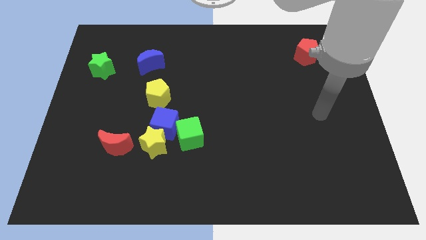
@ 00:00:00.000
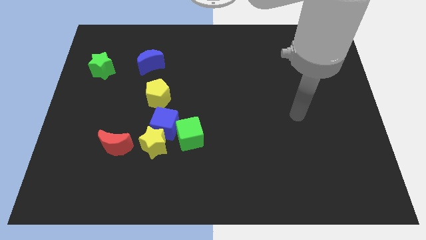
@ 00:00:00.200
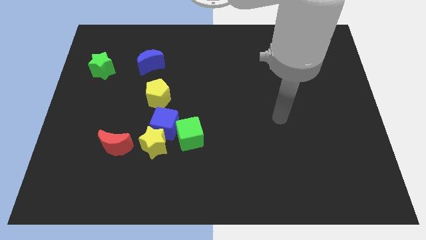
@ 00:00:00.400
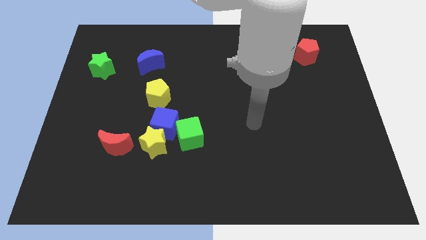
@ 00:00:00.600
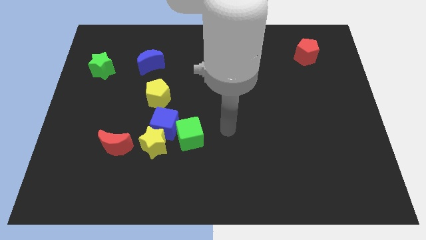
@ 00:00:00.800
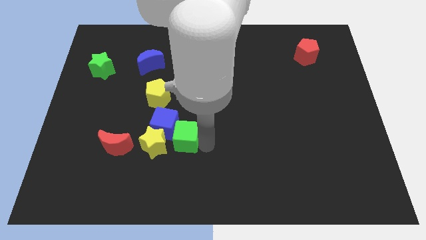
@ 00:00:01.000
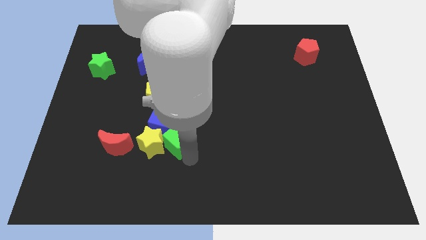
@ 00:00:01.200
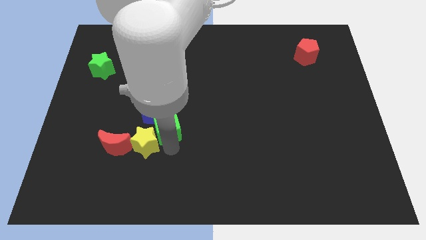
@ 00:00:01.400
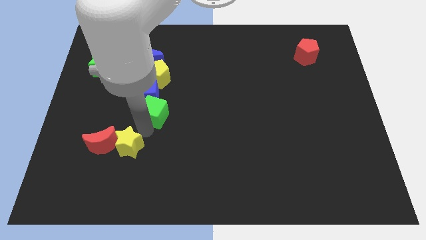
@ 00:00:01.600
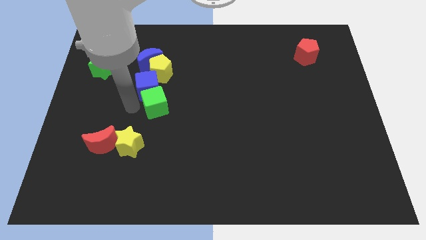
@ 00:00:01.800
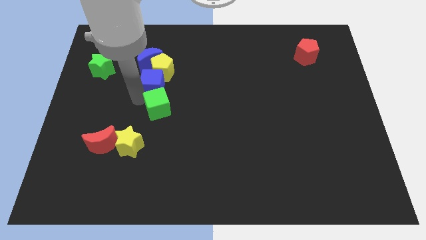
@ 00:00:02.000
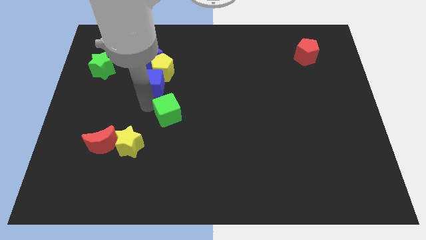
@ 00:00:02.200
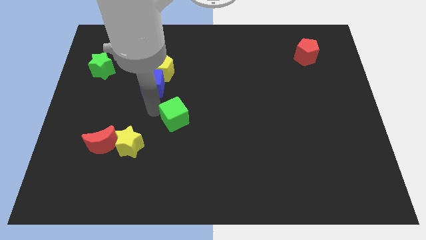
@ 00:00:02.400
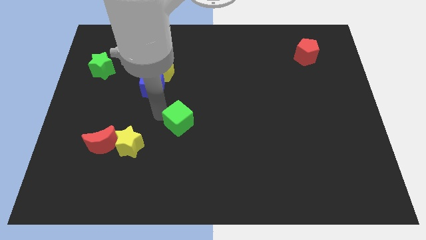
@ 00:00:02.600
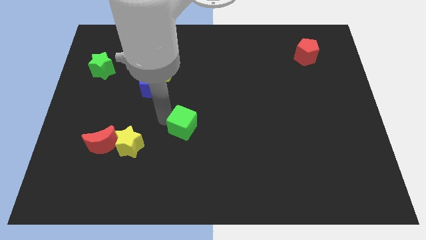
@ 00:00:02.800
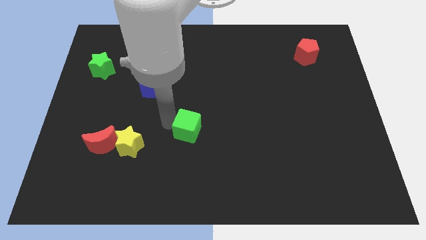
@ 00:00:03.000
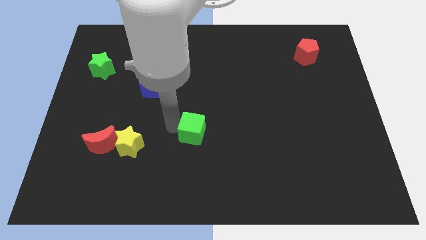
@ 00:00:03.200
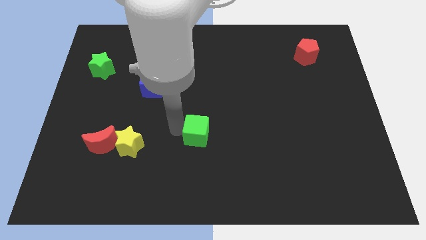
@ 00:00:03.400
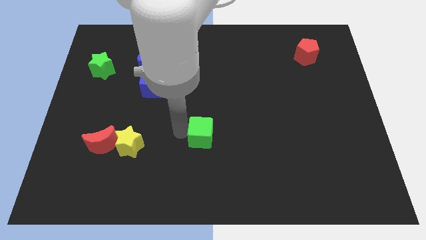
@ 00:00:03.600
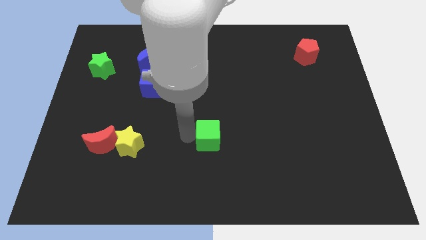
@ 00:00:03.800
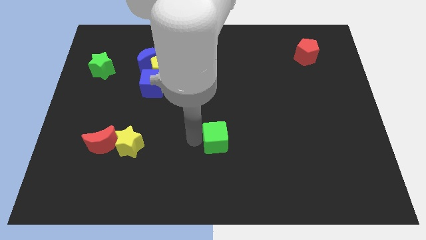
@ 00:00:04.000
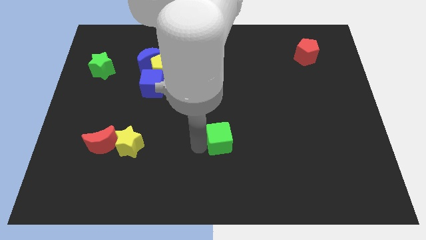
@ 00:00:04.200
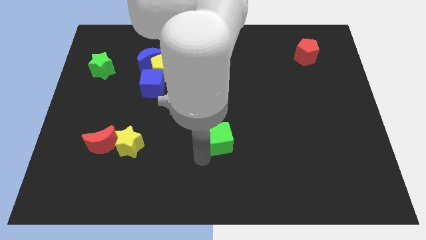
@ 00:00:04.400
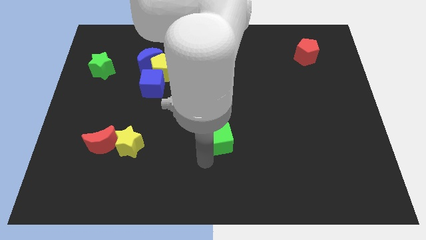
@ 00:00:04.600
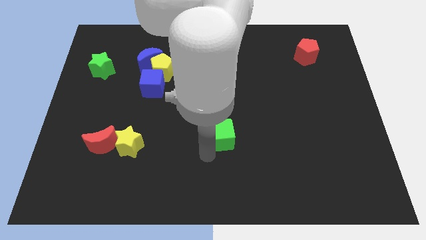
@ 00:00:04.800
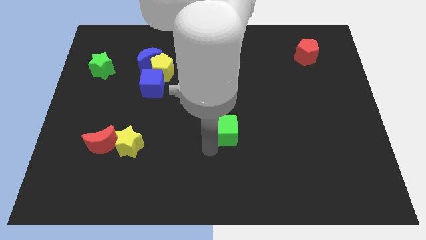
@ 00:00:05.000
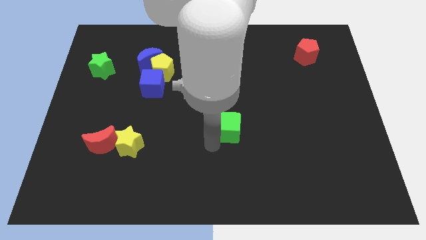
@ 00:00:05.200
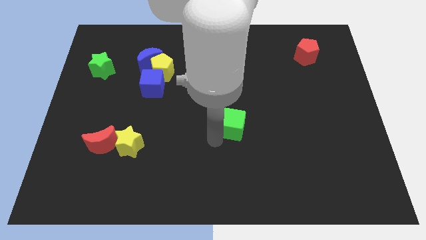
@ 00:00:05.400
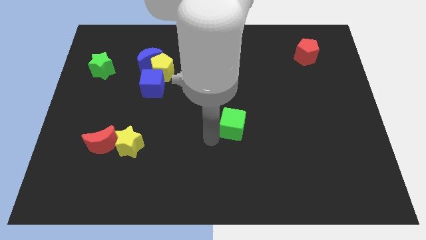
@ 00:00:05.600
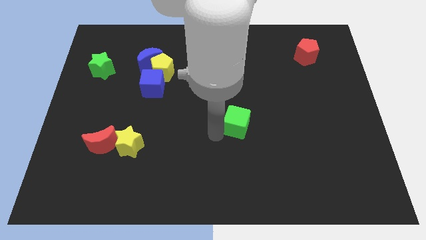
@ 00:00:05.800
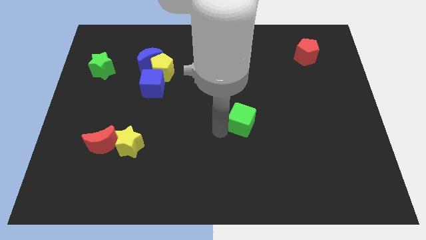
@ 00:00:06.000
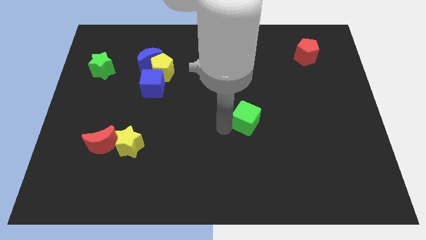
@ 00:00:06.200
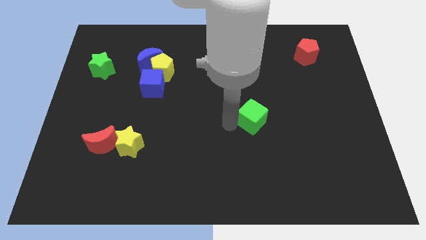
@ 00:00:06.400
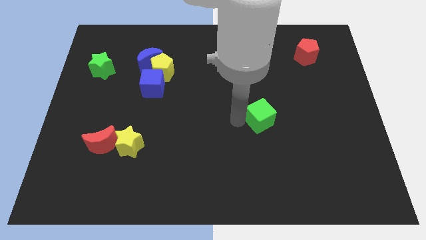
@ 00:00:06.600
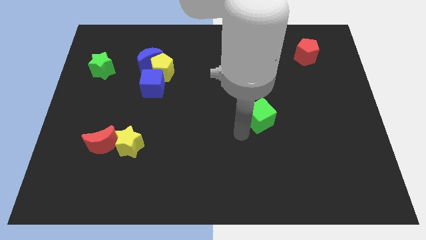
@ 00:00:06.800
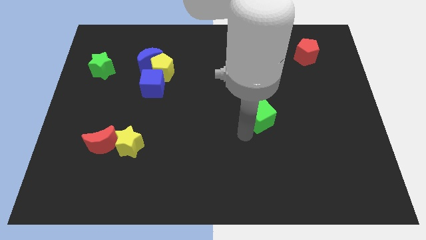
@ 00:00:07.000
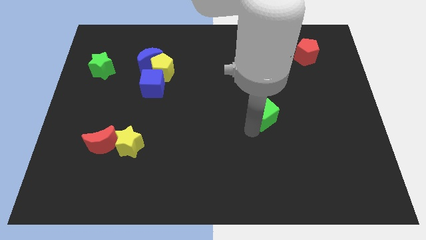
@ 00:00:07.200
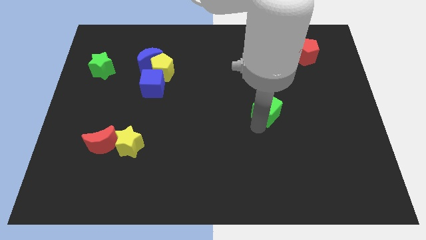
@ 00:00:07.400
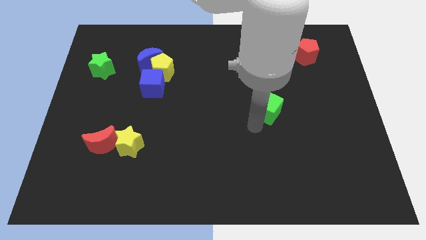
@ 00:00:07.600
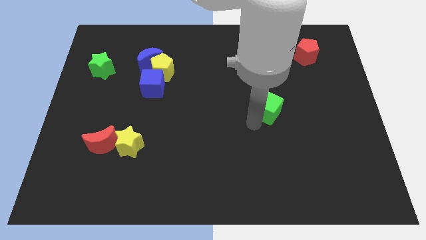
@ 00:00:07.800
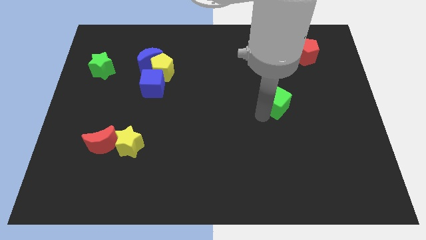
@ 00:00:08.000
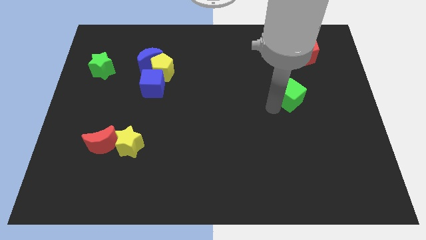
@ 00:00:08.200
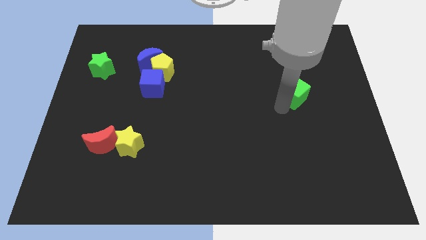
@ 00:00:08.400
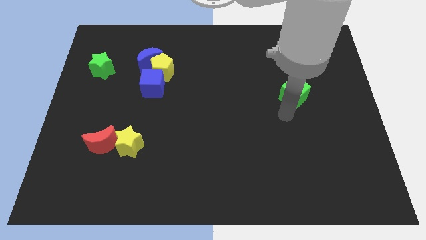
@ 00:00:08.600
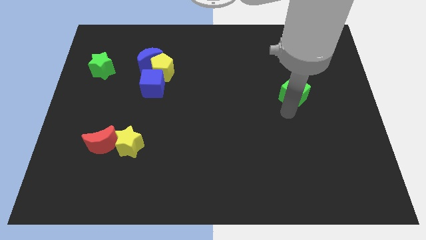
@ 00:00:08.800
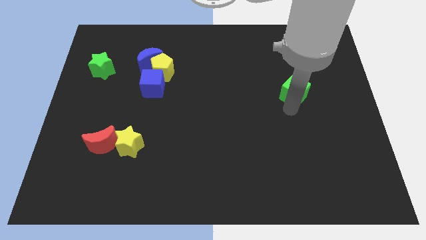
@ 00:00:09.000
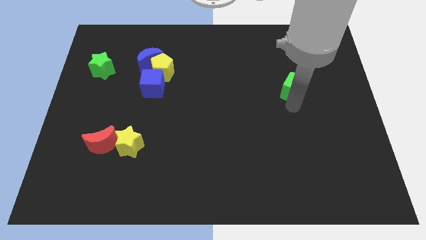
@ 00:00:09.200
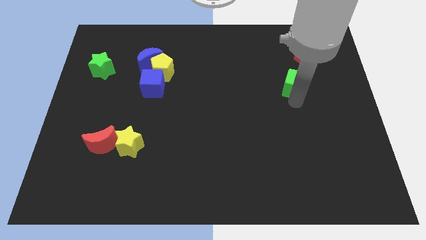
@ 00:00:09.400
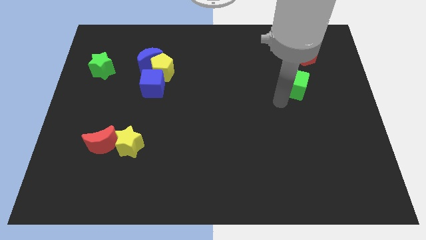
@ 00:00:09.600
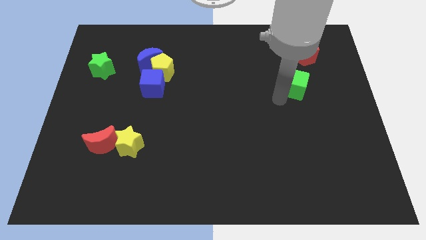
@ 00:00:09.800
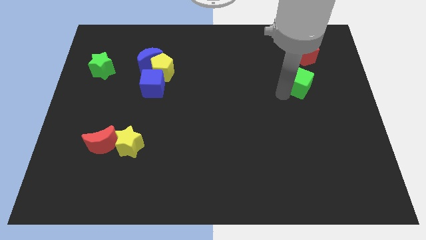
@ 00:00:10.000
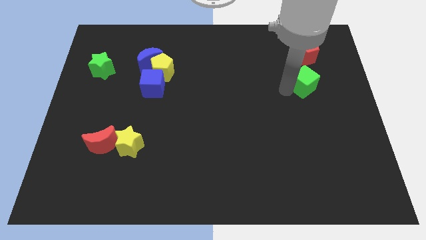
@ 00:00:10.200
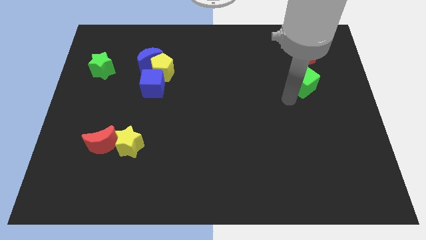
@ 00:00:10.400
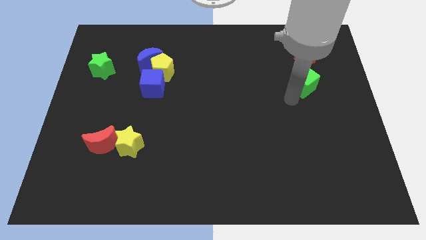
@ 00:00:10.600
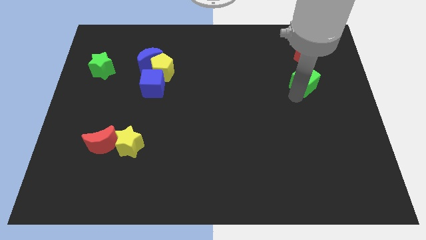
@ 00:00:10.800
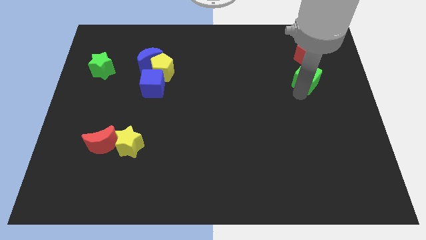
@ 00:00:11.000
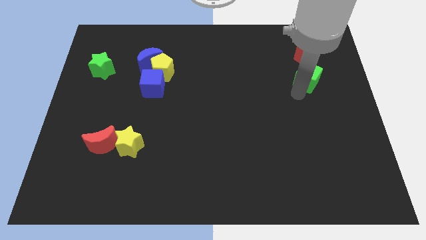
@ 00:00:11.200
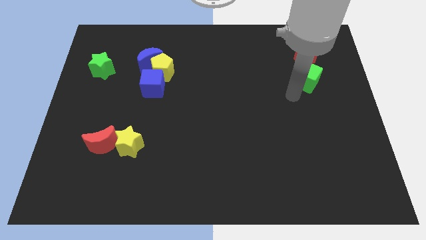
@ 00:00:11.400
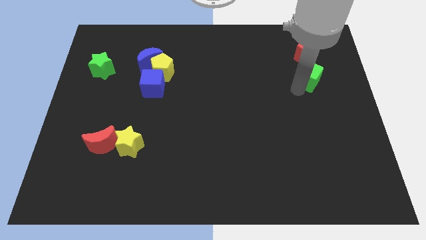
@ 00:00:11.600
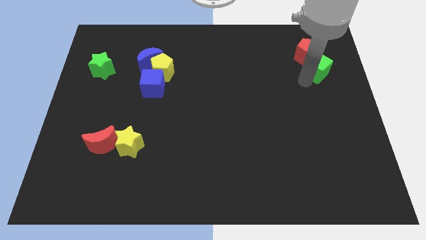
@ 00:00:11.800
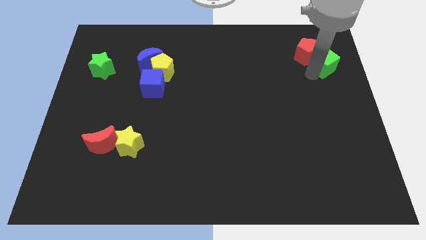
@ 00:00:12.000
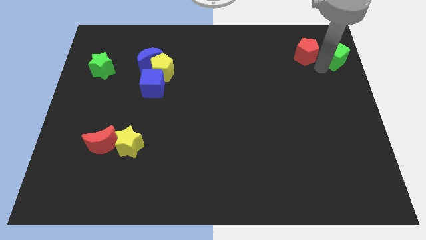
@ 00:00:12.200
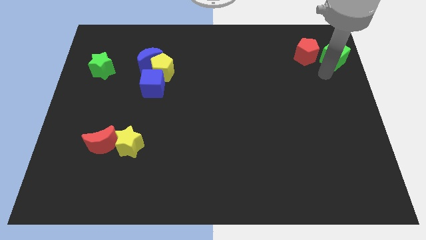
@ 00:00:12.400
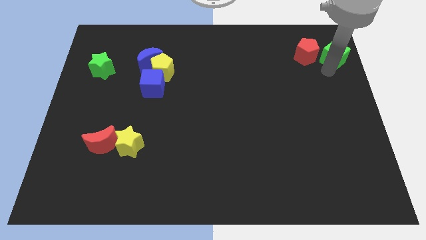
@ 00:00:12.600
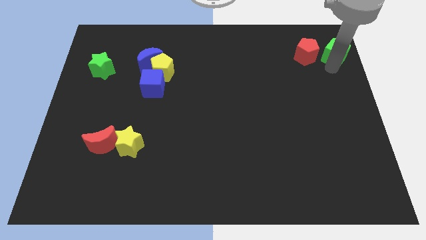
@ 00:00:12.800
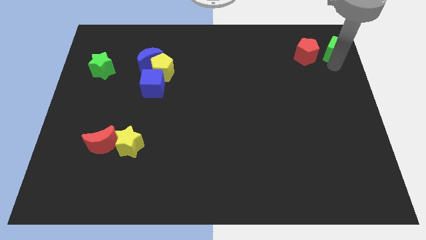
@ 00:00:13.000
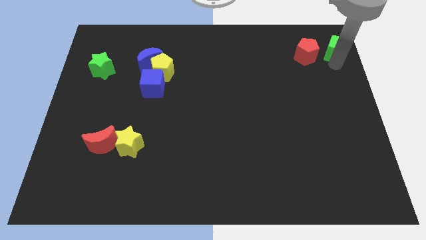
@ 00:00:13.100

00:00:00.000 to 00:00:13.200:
push the green cube to the upper right corner
